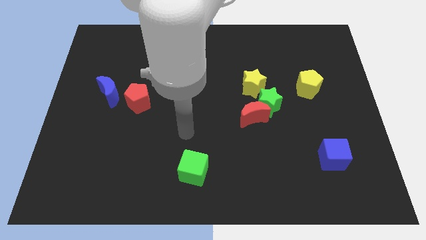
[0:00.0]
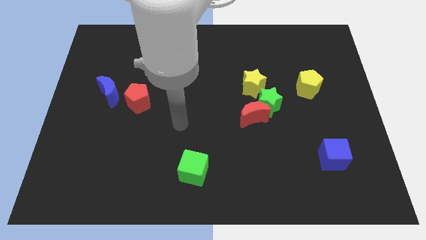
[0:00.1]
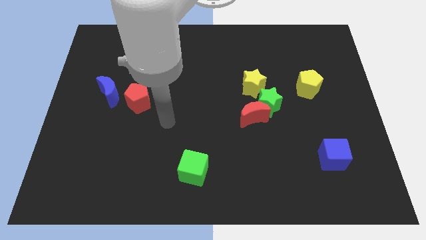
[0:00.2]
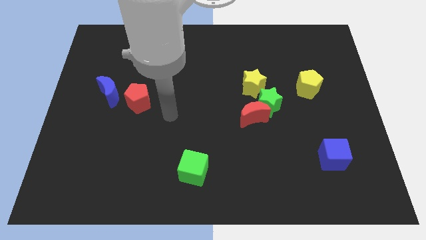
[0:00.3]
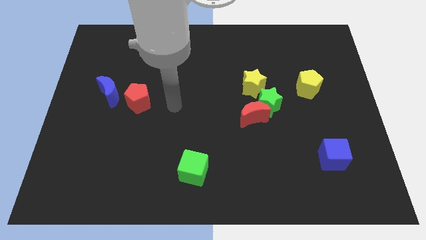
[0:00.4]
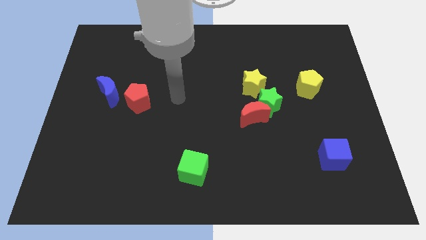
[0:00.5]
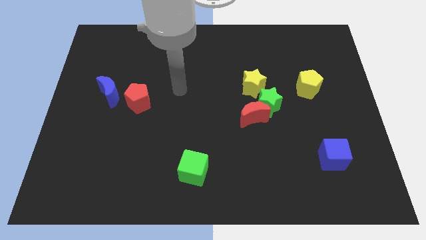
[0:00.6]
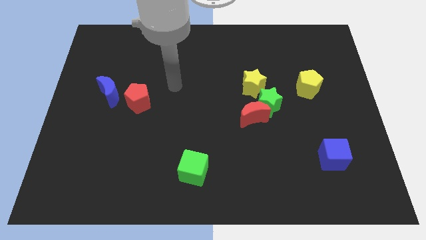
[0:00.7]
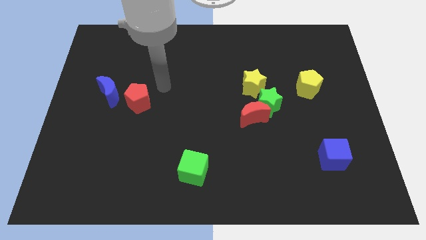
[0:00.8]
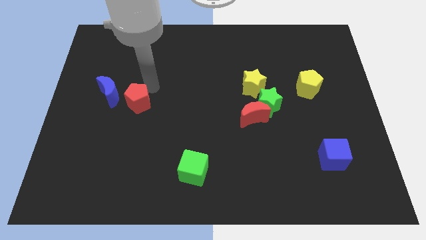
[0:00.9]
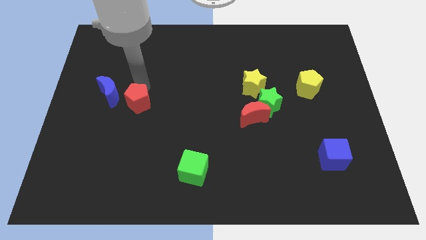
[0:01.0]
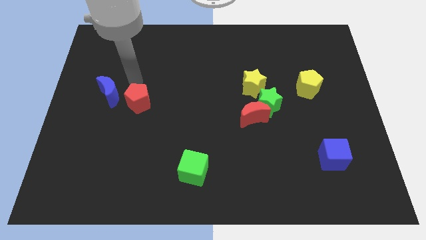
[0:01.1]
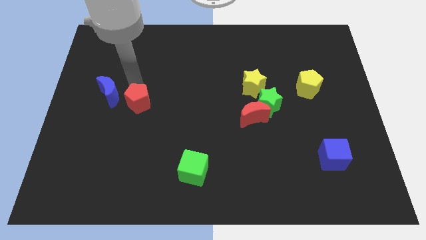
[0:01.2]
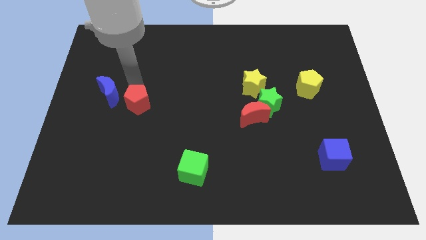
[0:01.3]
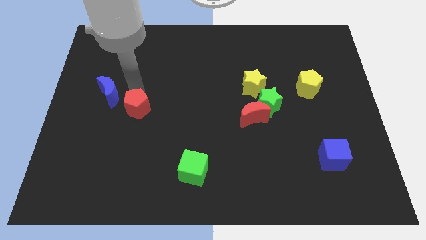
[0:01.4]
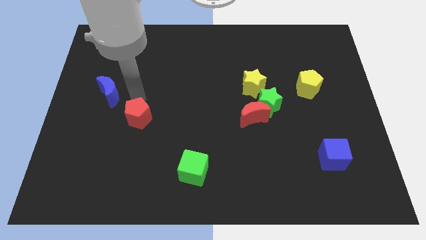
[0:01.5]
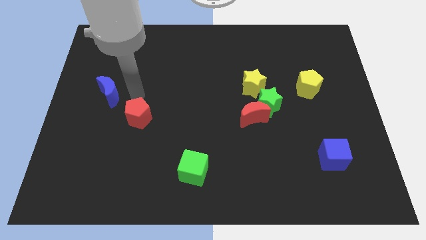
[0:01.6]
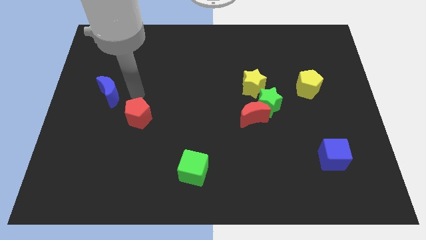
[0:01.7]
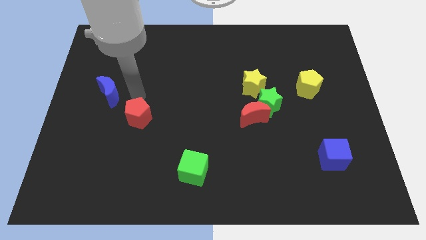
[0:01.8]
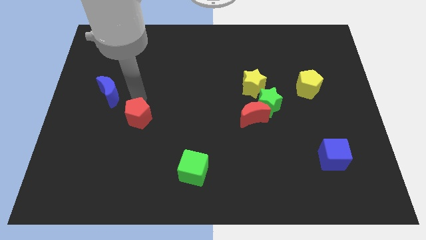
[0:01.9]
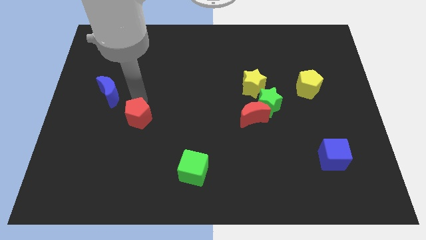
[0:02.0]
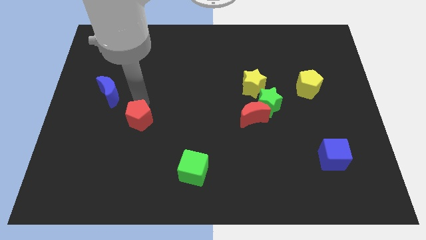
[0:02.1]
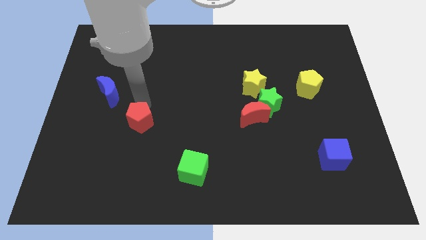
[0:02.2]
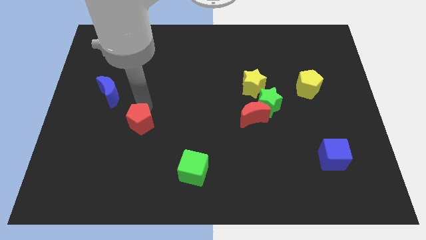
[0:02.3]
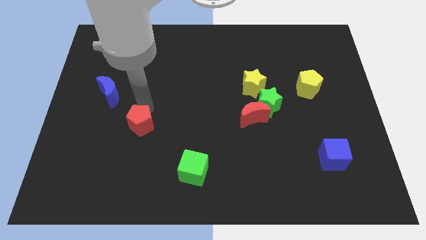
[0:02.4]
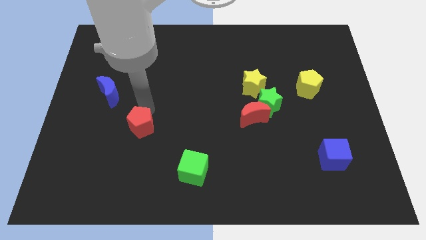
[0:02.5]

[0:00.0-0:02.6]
push the red pentagon down somewhat

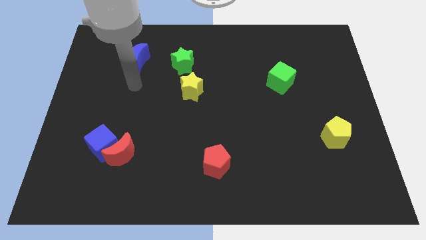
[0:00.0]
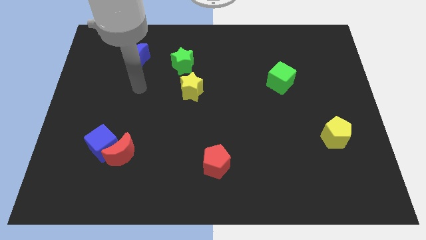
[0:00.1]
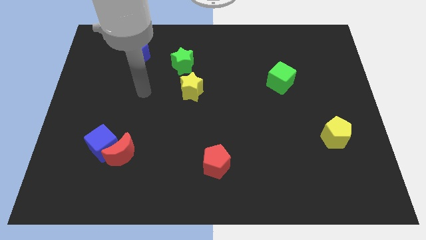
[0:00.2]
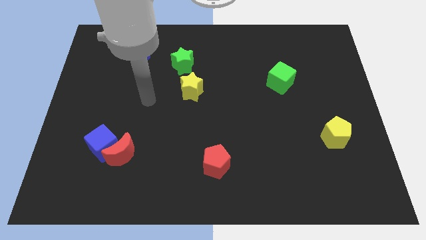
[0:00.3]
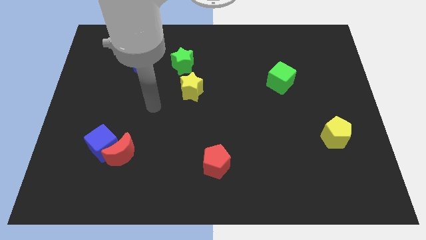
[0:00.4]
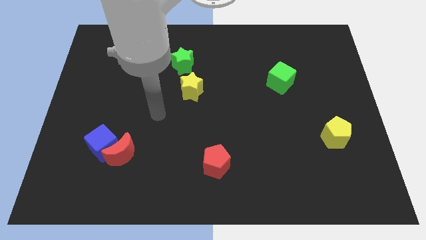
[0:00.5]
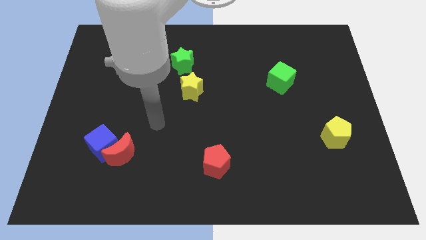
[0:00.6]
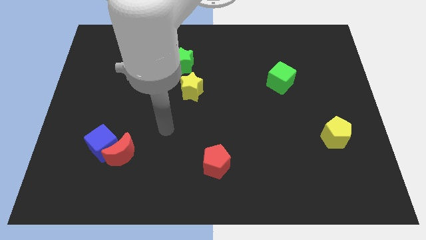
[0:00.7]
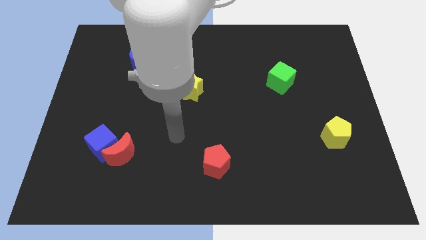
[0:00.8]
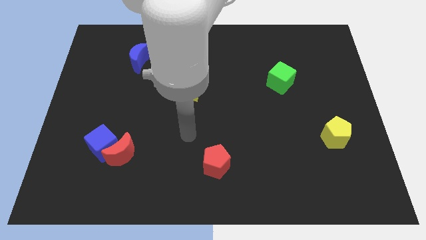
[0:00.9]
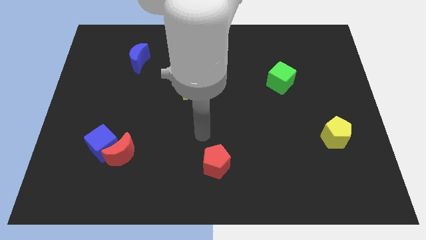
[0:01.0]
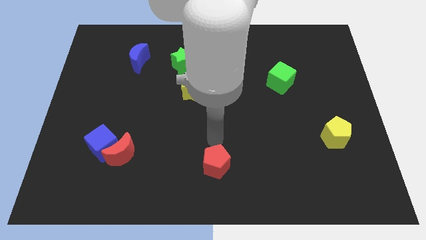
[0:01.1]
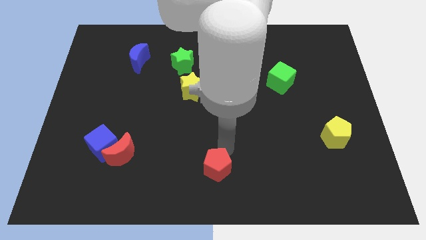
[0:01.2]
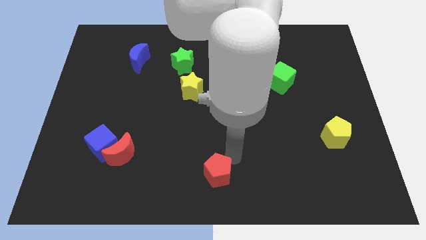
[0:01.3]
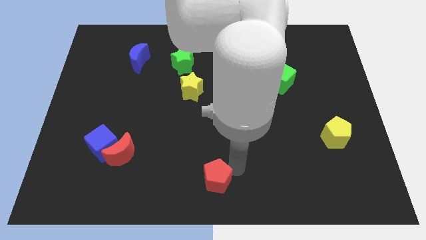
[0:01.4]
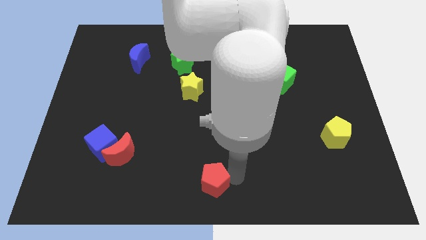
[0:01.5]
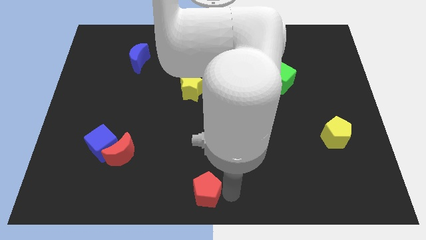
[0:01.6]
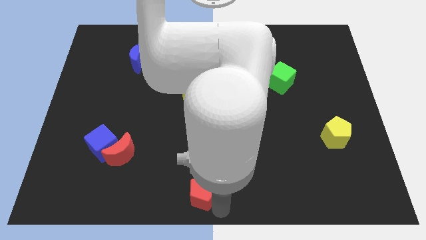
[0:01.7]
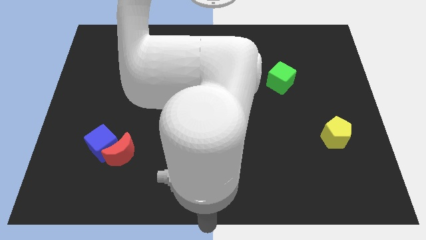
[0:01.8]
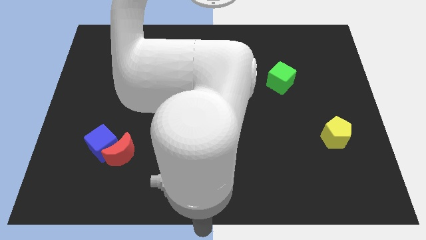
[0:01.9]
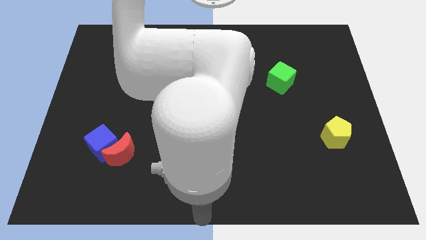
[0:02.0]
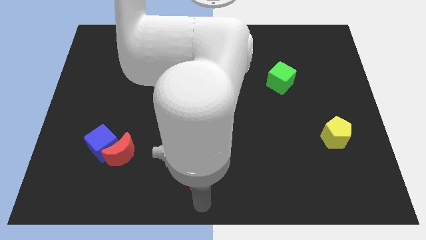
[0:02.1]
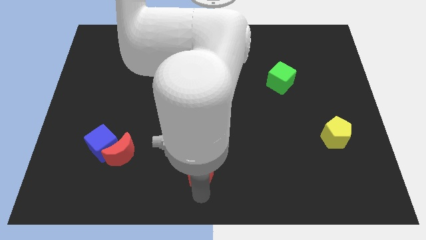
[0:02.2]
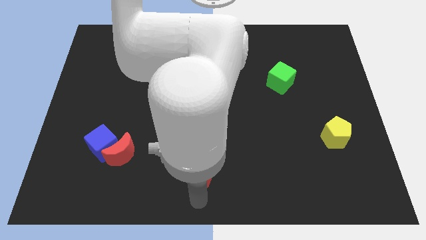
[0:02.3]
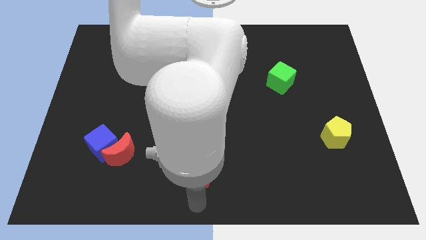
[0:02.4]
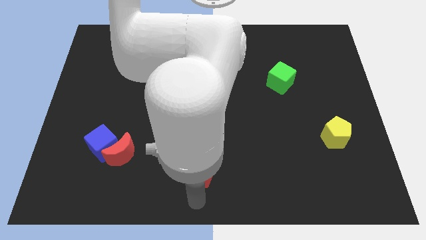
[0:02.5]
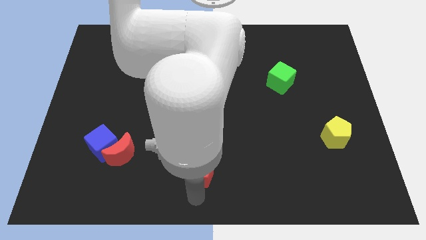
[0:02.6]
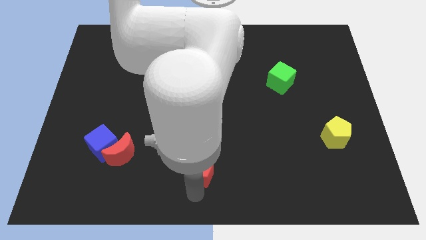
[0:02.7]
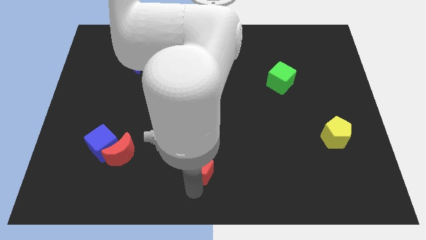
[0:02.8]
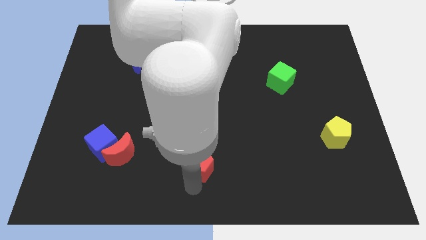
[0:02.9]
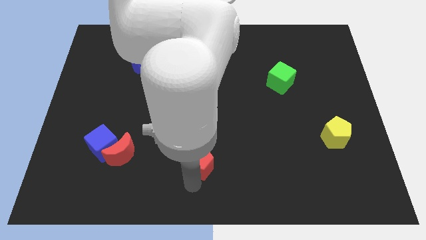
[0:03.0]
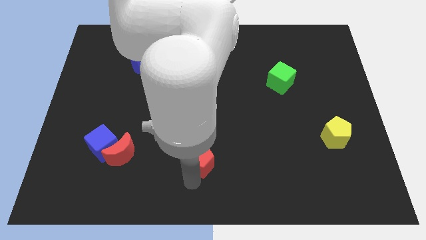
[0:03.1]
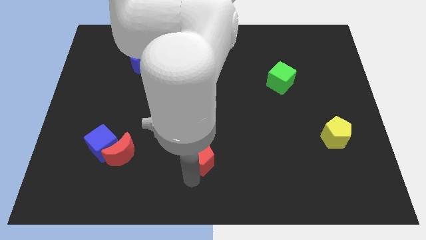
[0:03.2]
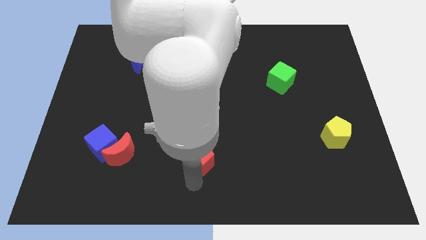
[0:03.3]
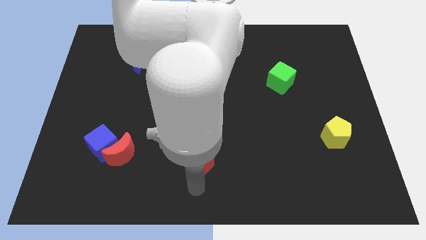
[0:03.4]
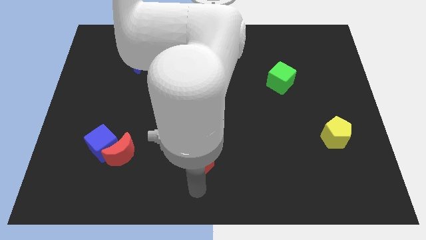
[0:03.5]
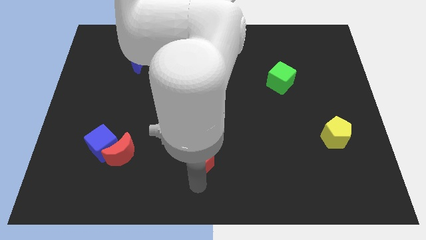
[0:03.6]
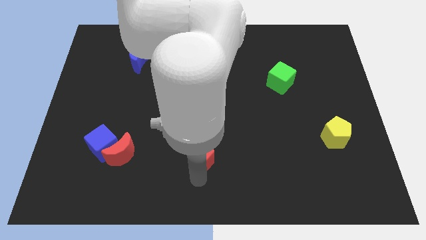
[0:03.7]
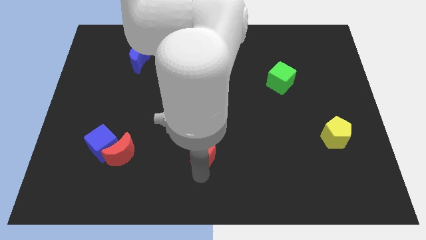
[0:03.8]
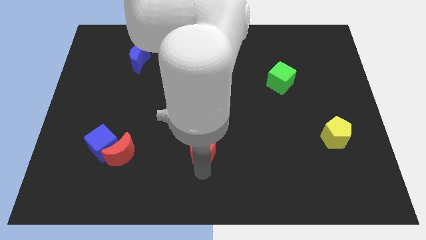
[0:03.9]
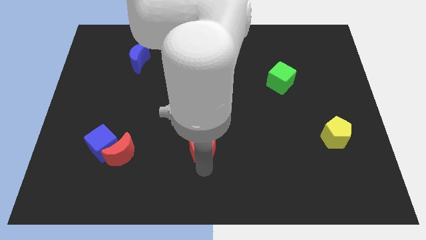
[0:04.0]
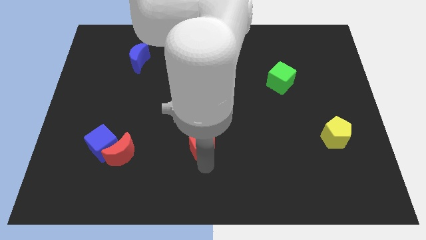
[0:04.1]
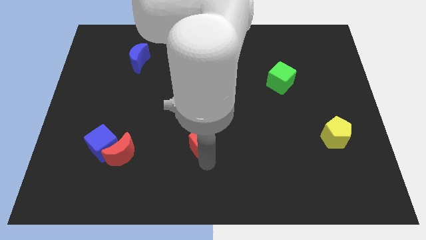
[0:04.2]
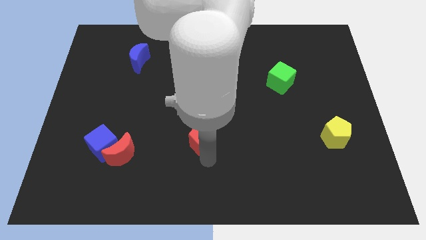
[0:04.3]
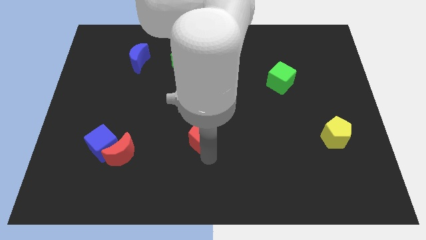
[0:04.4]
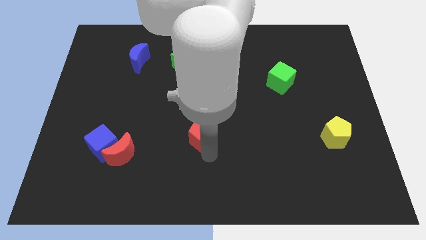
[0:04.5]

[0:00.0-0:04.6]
slide the red pentagon upwards and then to the left a bit

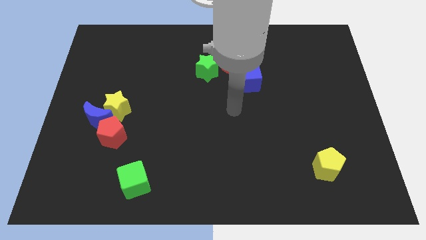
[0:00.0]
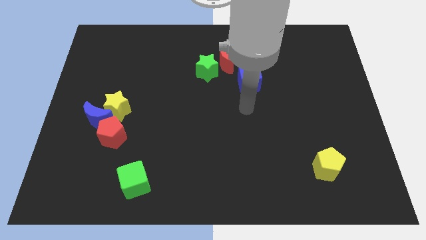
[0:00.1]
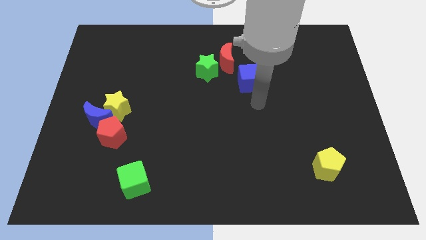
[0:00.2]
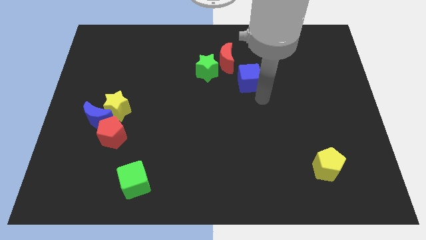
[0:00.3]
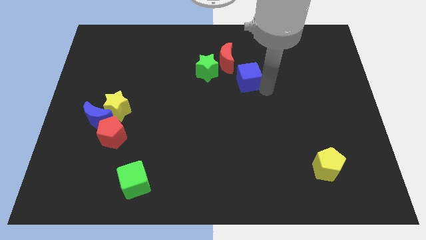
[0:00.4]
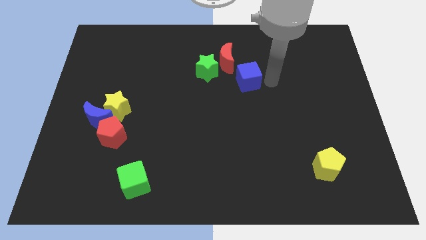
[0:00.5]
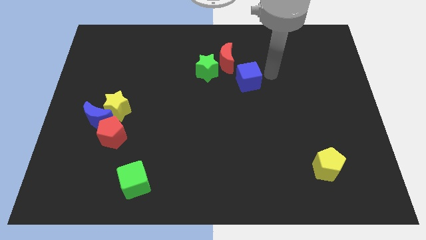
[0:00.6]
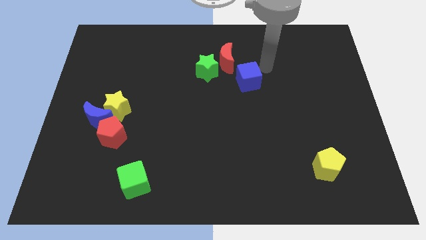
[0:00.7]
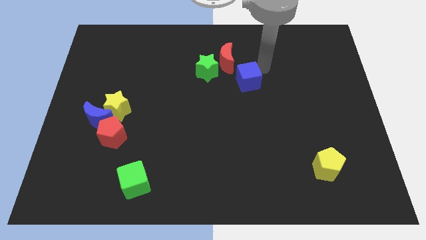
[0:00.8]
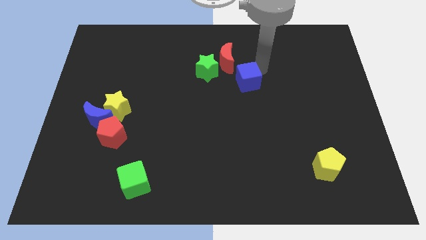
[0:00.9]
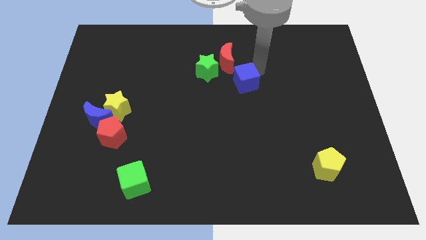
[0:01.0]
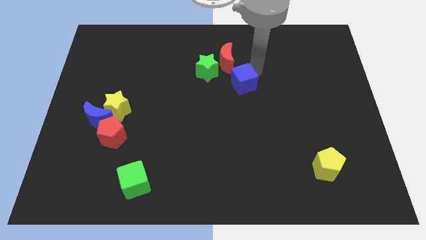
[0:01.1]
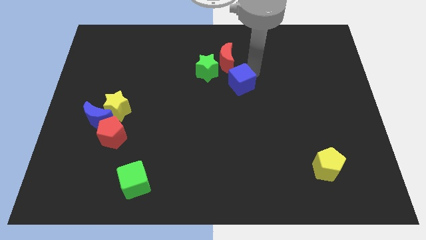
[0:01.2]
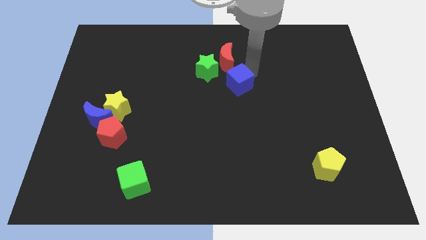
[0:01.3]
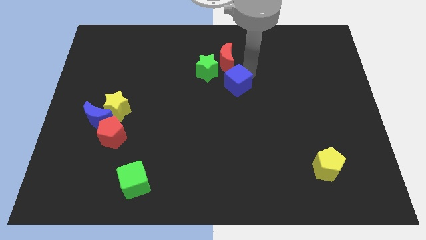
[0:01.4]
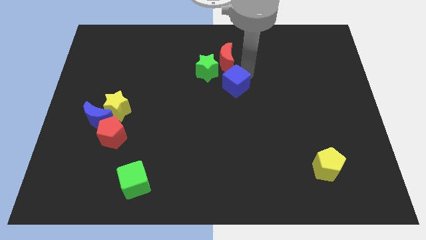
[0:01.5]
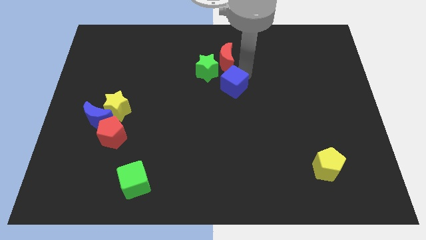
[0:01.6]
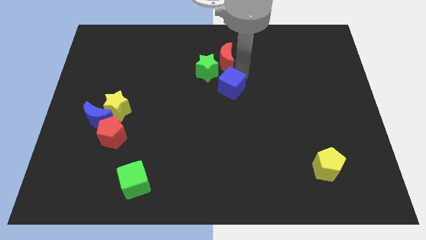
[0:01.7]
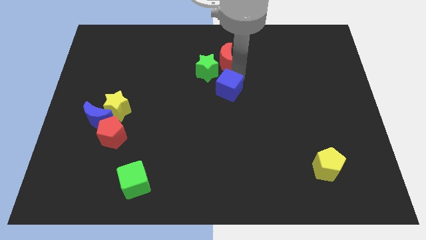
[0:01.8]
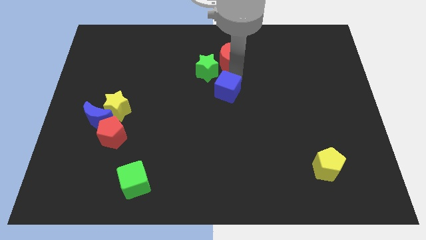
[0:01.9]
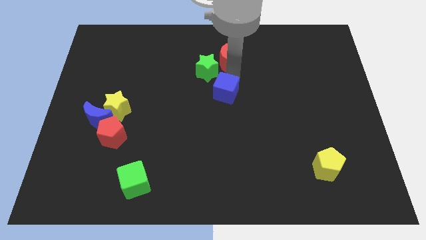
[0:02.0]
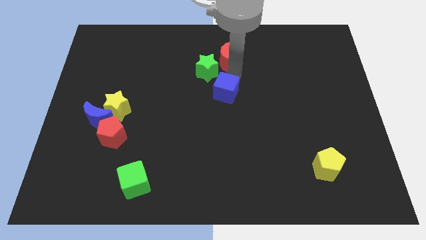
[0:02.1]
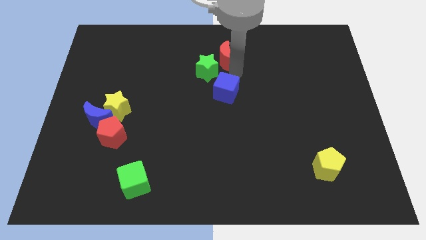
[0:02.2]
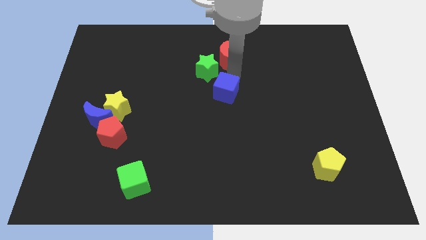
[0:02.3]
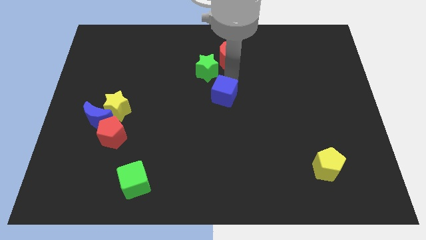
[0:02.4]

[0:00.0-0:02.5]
move the blue cube down and left diagonally somewhat
